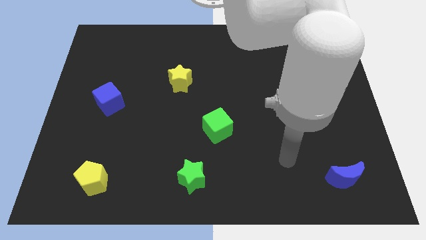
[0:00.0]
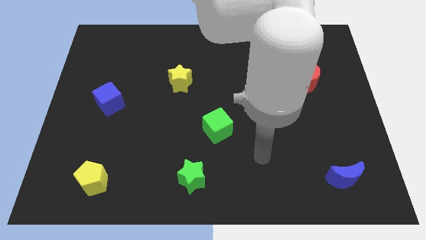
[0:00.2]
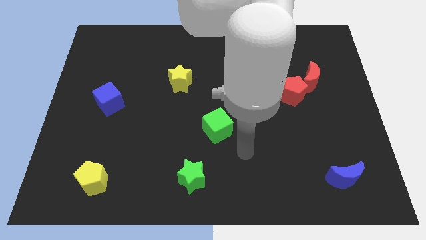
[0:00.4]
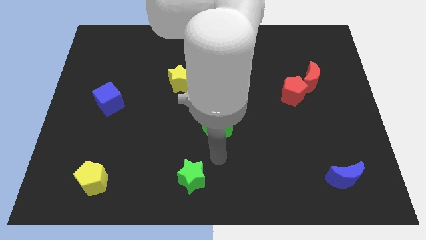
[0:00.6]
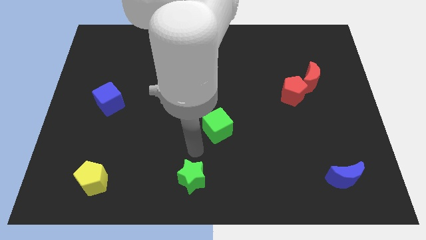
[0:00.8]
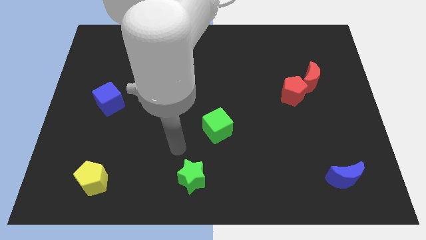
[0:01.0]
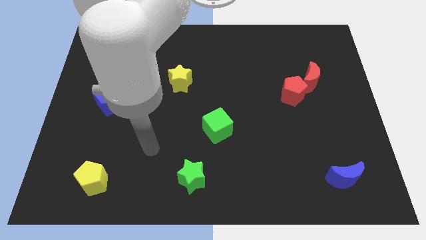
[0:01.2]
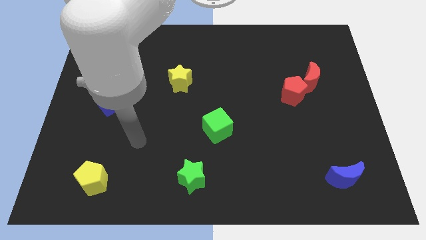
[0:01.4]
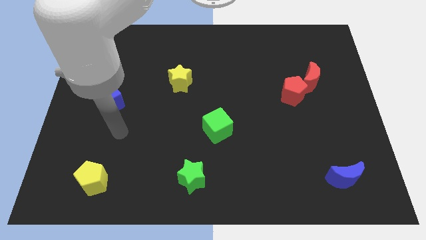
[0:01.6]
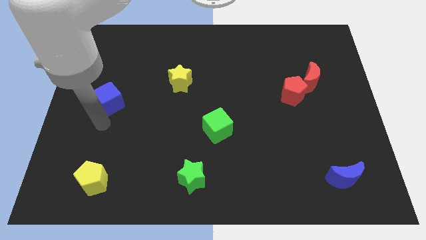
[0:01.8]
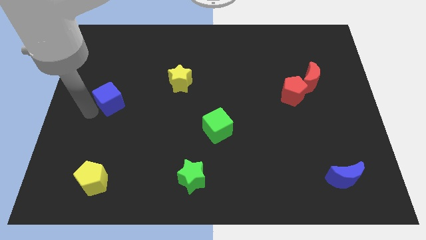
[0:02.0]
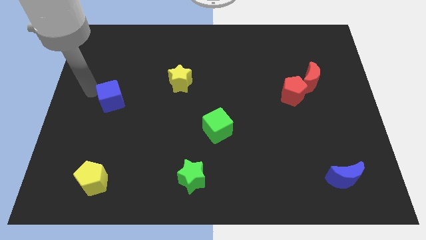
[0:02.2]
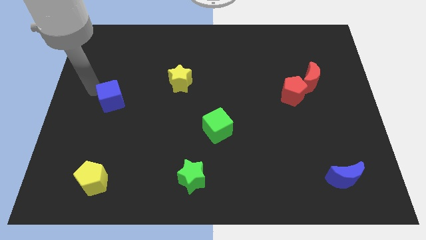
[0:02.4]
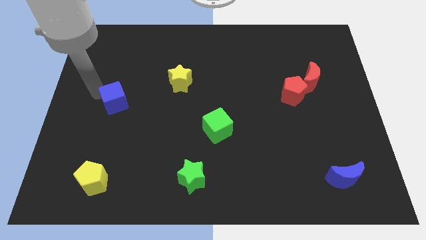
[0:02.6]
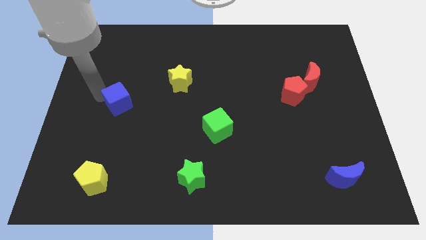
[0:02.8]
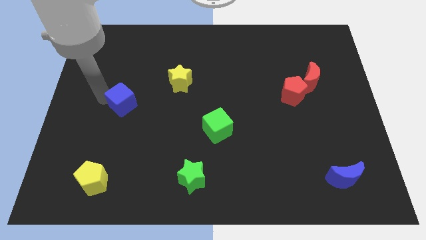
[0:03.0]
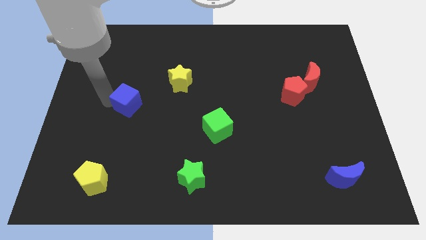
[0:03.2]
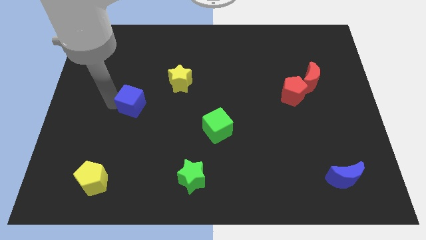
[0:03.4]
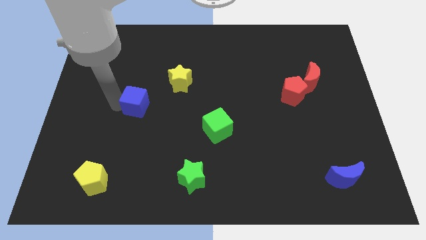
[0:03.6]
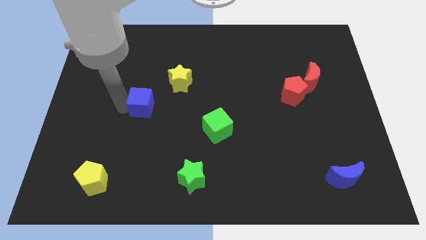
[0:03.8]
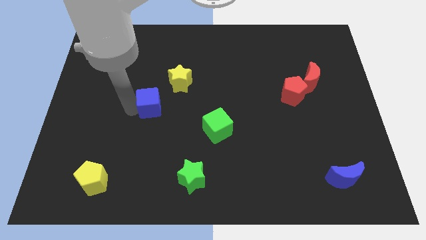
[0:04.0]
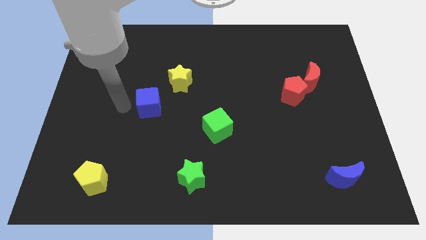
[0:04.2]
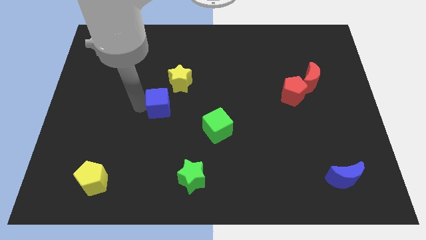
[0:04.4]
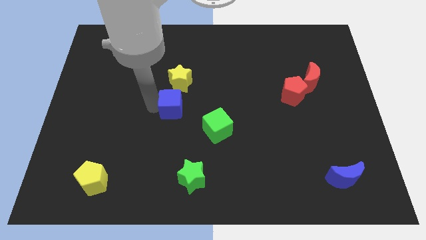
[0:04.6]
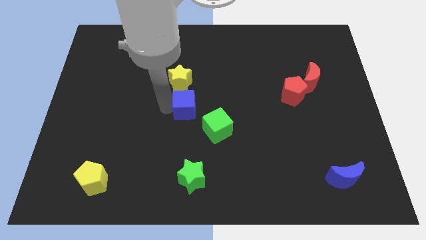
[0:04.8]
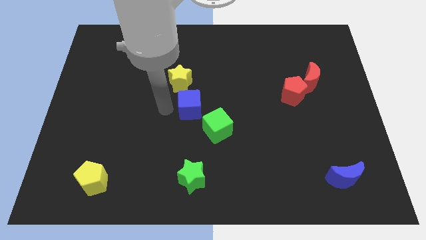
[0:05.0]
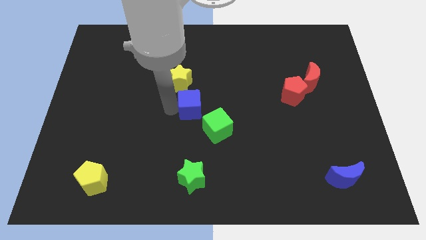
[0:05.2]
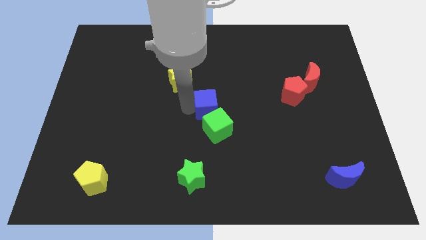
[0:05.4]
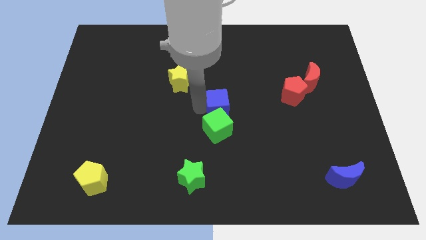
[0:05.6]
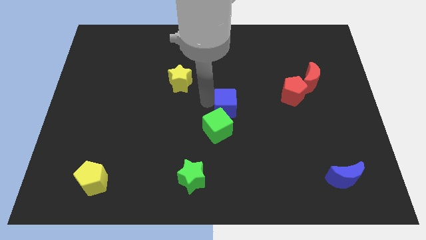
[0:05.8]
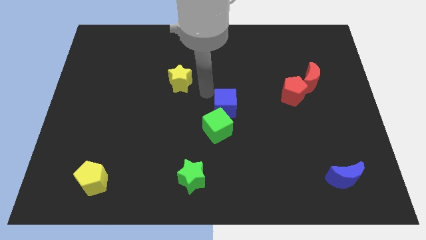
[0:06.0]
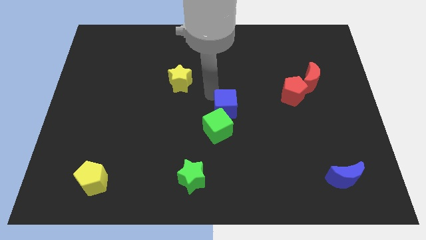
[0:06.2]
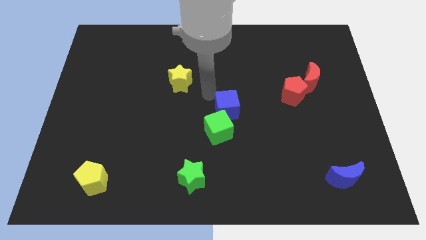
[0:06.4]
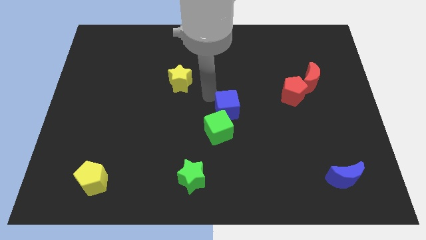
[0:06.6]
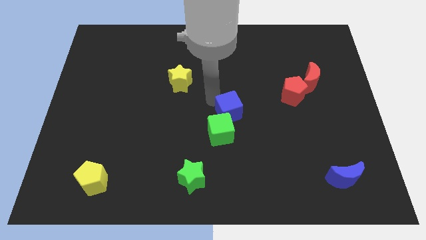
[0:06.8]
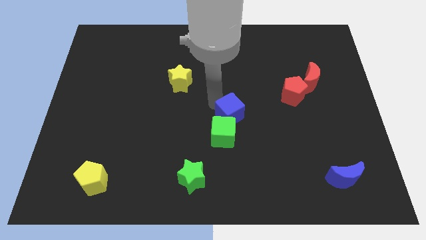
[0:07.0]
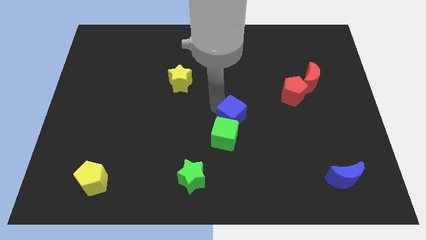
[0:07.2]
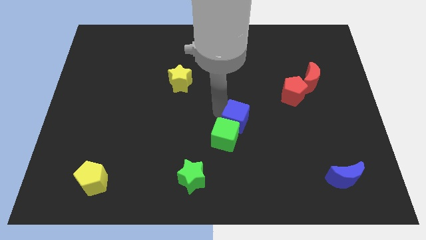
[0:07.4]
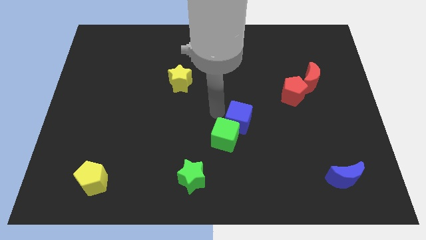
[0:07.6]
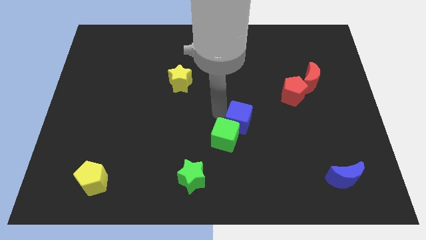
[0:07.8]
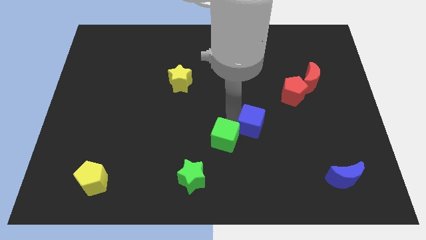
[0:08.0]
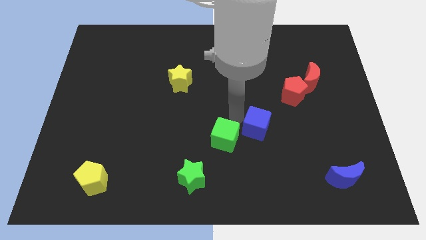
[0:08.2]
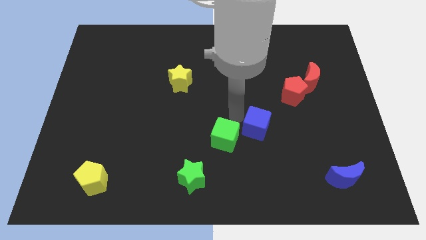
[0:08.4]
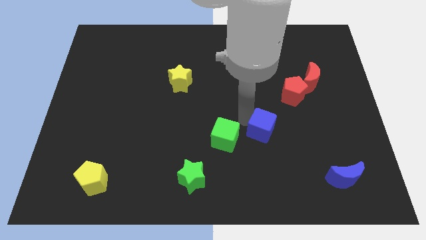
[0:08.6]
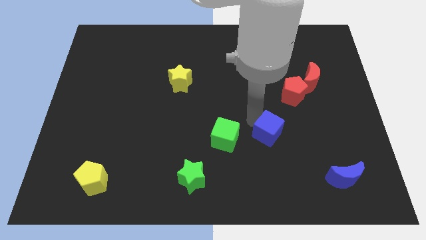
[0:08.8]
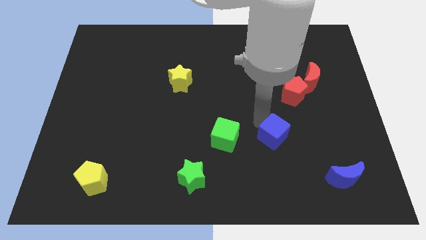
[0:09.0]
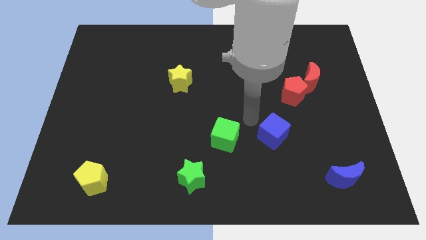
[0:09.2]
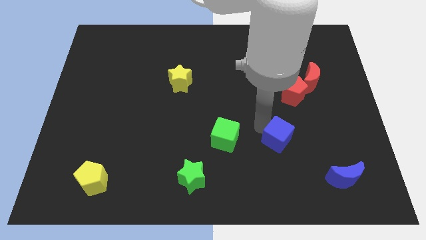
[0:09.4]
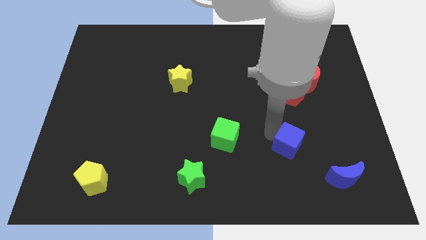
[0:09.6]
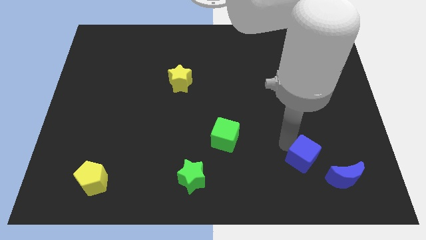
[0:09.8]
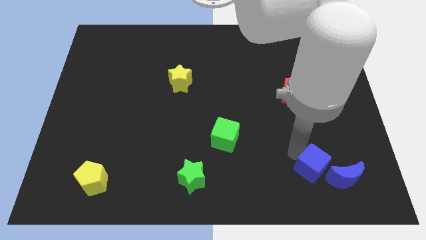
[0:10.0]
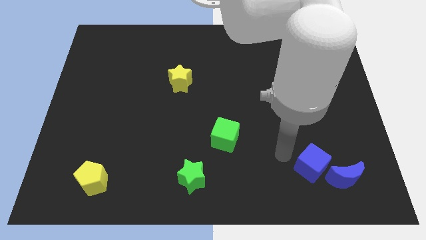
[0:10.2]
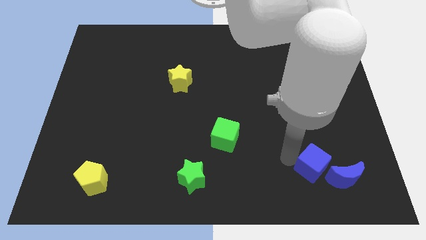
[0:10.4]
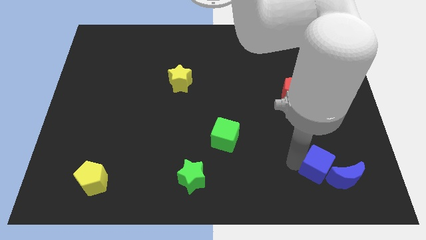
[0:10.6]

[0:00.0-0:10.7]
push the blue cube towards the blue moon

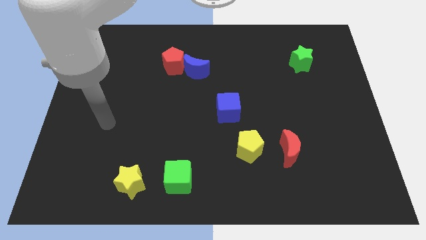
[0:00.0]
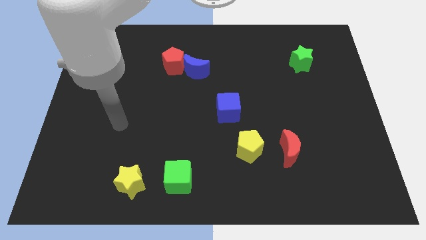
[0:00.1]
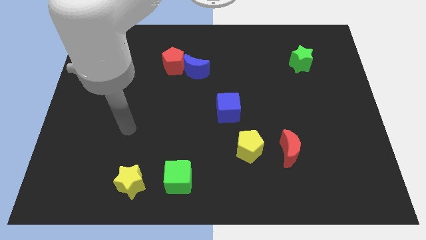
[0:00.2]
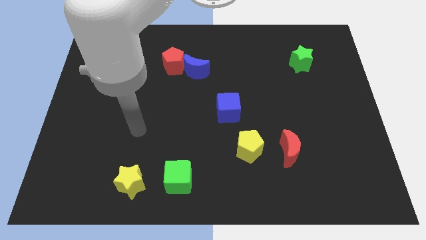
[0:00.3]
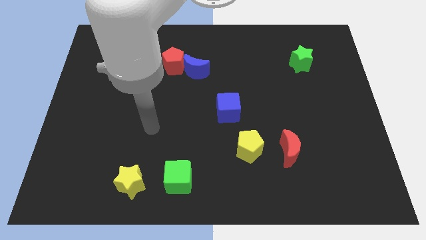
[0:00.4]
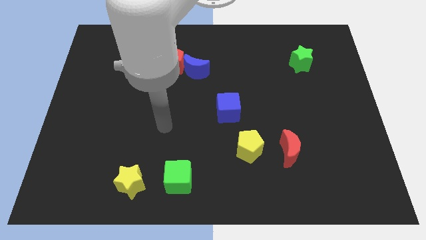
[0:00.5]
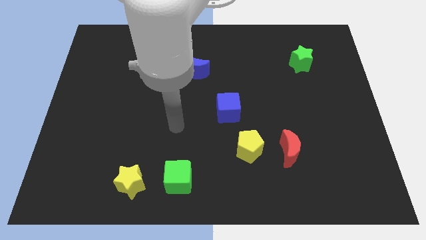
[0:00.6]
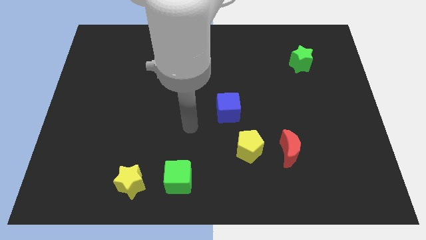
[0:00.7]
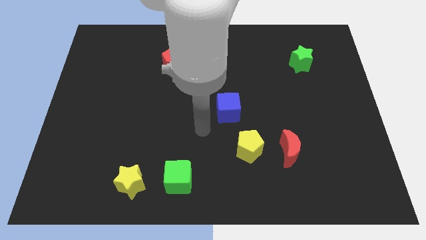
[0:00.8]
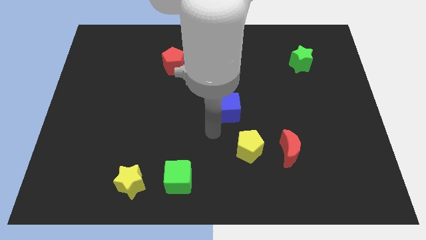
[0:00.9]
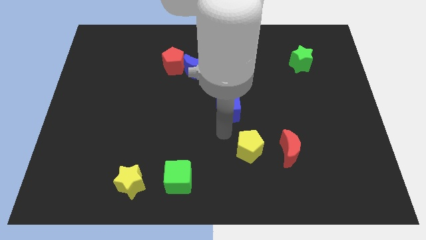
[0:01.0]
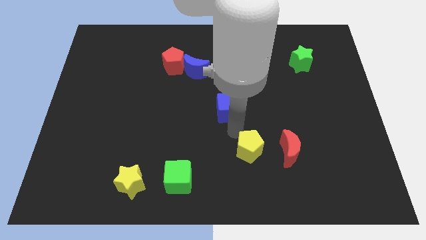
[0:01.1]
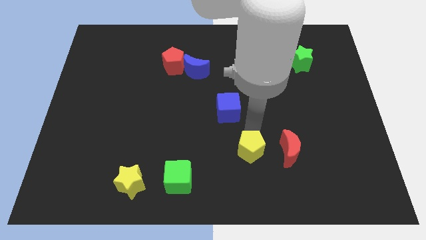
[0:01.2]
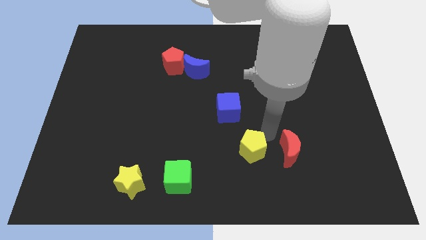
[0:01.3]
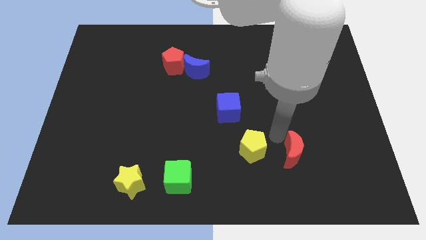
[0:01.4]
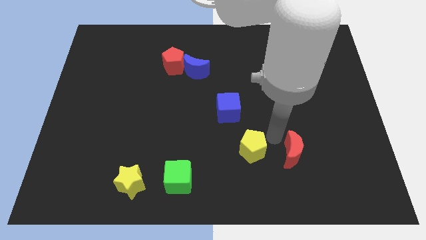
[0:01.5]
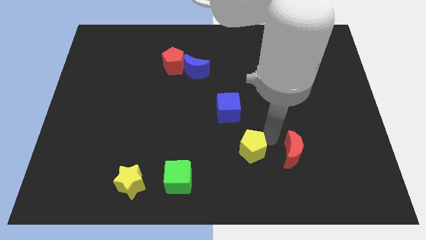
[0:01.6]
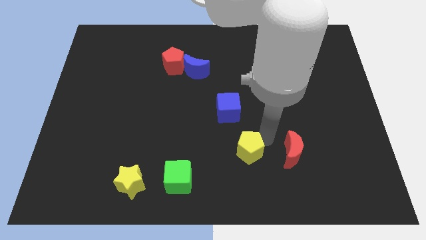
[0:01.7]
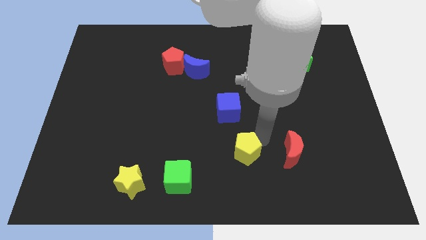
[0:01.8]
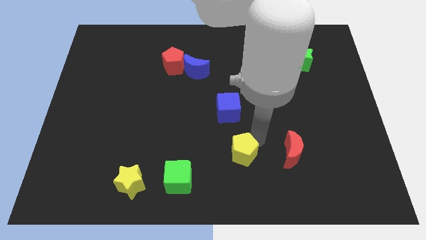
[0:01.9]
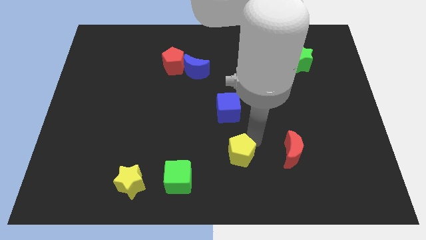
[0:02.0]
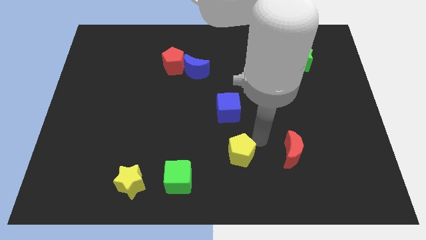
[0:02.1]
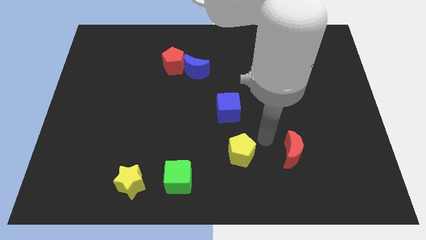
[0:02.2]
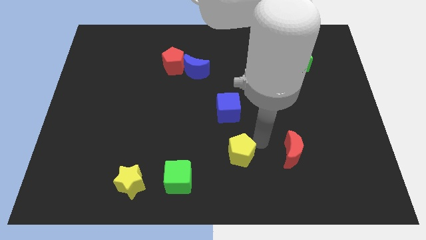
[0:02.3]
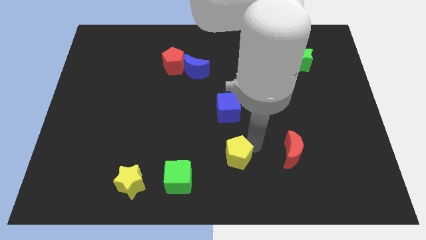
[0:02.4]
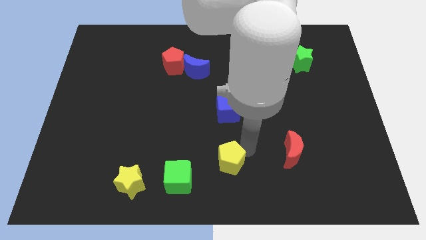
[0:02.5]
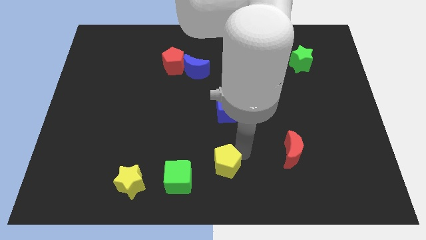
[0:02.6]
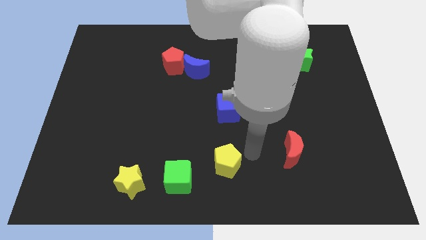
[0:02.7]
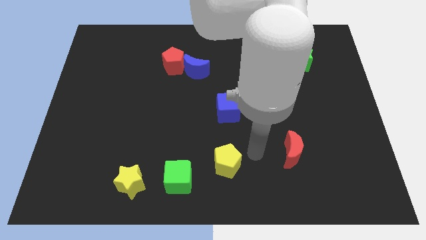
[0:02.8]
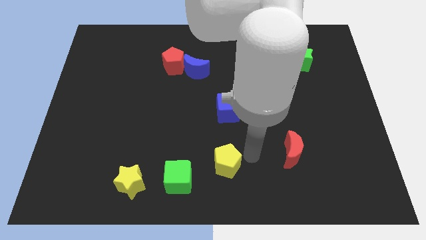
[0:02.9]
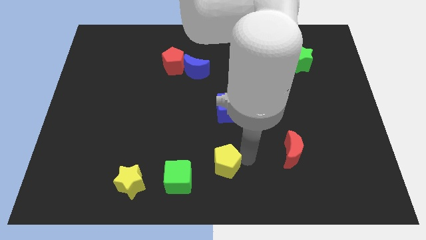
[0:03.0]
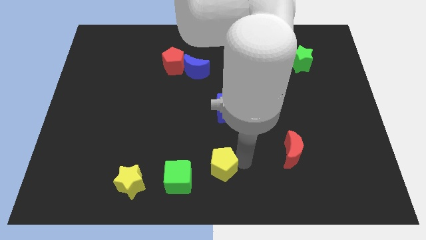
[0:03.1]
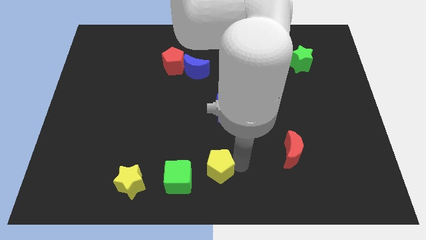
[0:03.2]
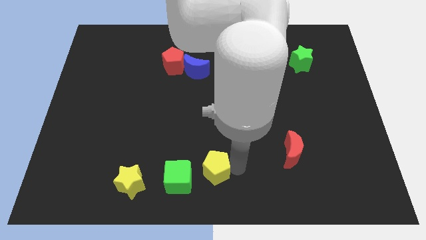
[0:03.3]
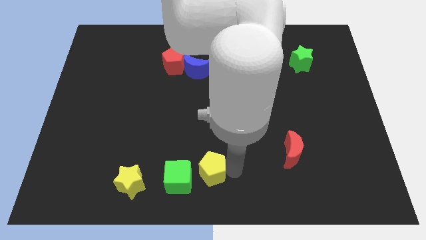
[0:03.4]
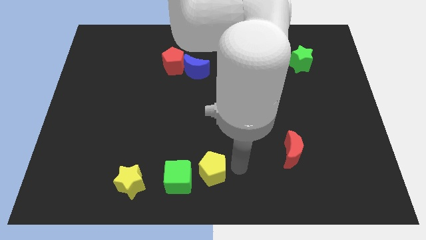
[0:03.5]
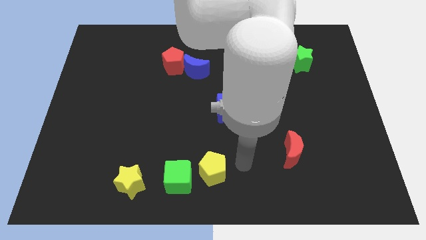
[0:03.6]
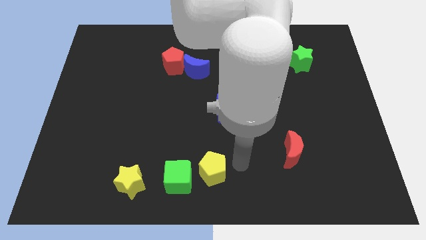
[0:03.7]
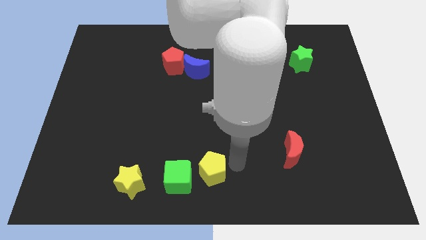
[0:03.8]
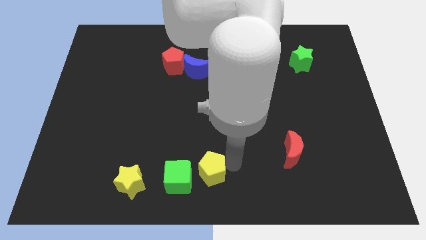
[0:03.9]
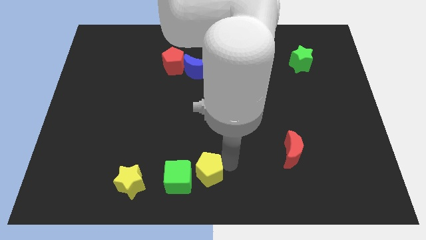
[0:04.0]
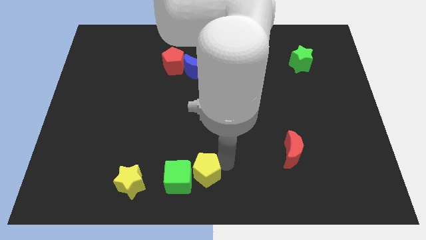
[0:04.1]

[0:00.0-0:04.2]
put the yellow pentagon close to the green cube
